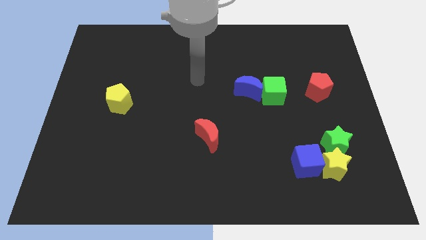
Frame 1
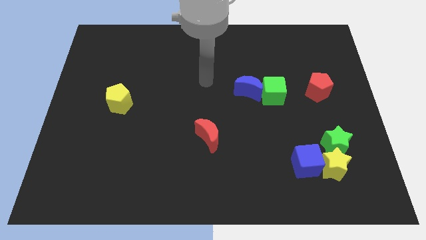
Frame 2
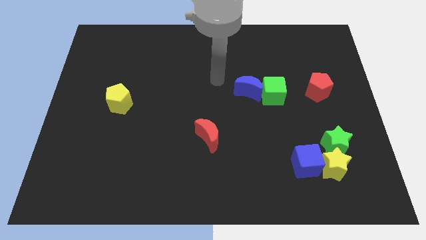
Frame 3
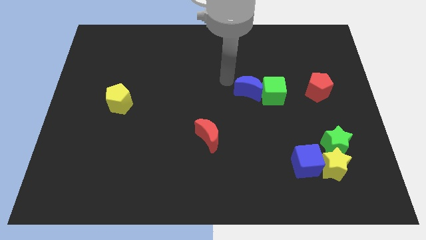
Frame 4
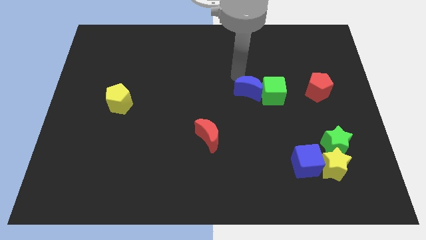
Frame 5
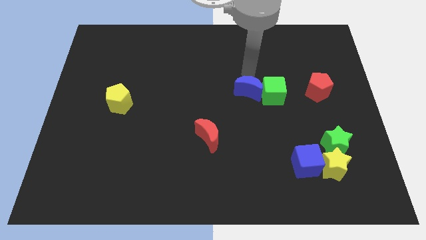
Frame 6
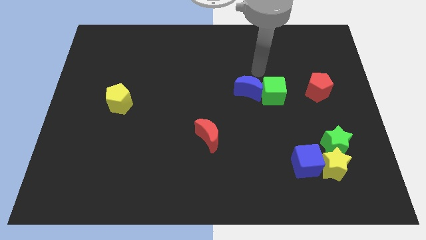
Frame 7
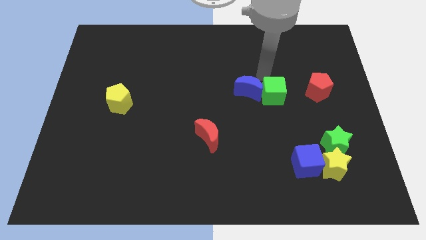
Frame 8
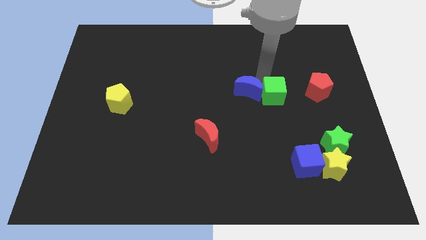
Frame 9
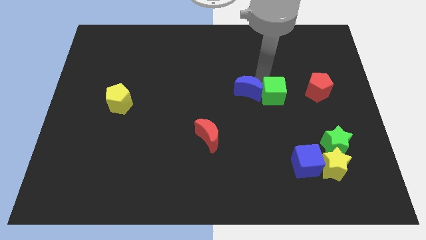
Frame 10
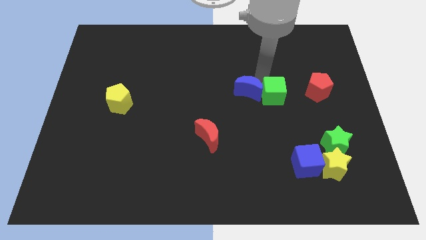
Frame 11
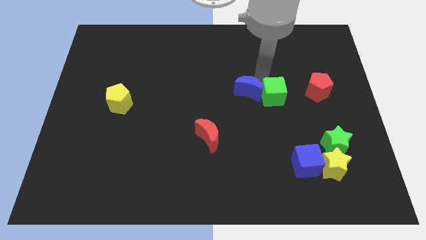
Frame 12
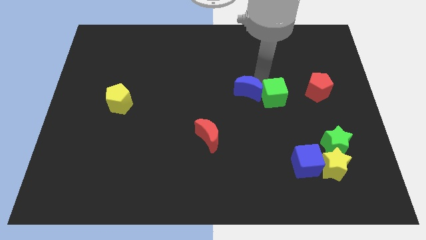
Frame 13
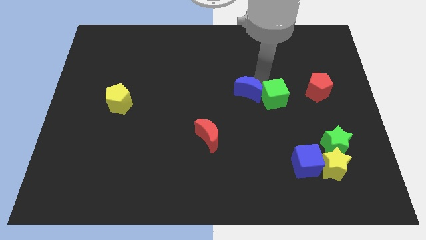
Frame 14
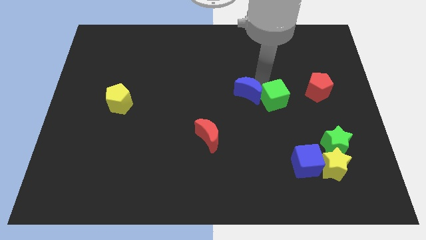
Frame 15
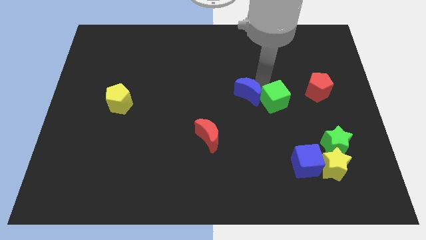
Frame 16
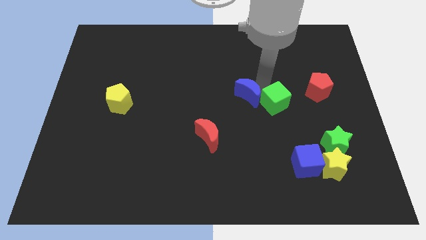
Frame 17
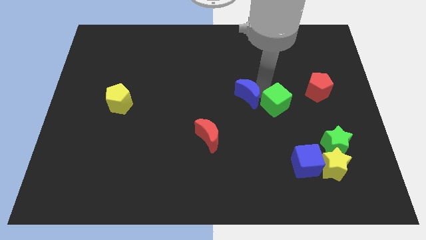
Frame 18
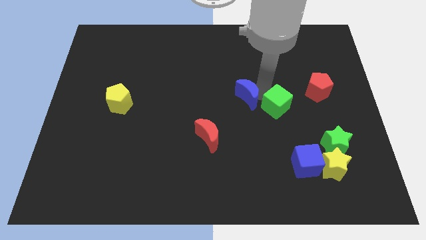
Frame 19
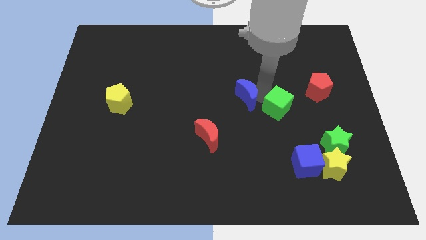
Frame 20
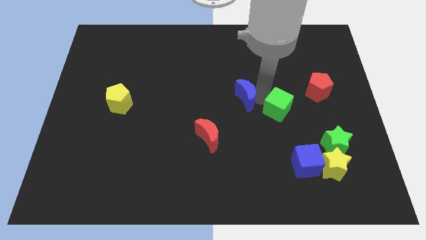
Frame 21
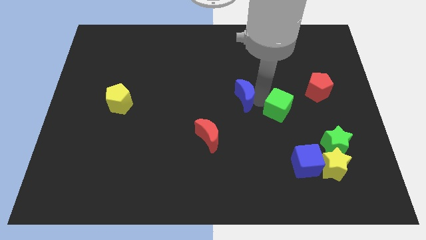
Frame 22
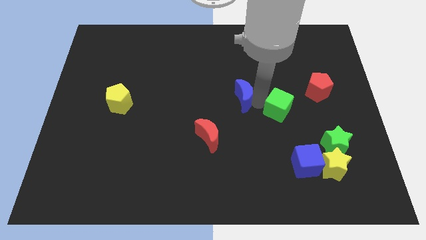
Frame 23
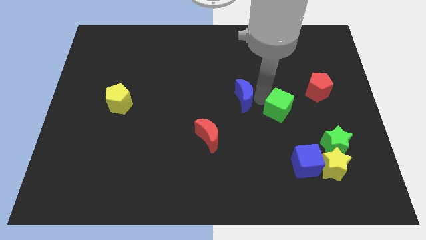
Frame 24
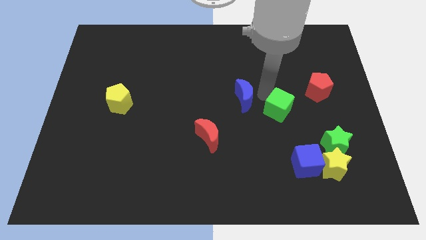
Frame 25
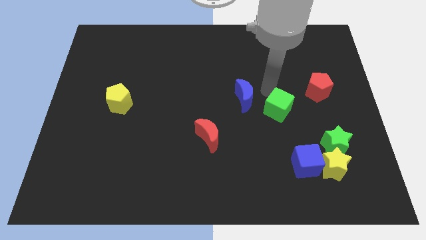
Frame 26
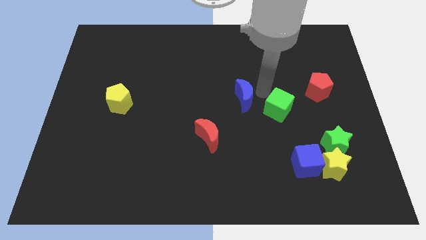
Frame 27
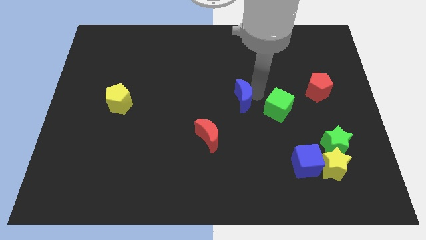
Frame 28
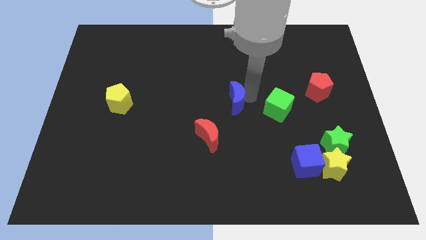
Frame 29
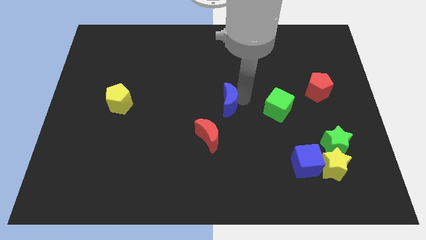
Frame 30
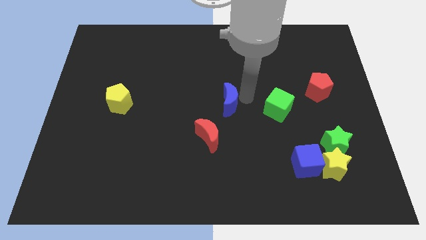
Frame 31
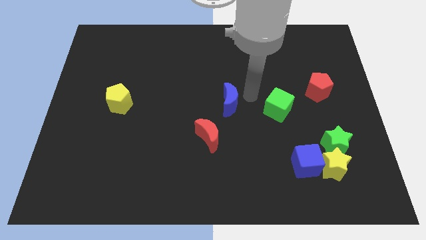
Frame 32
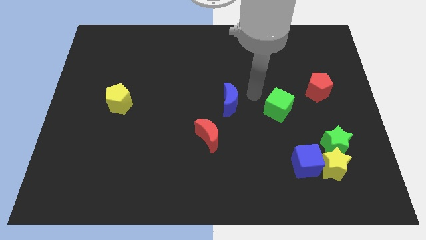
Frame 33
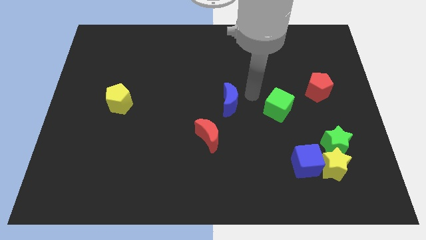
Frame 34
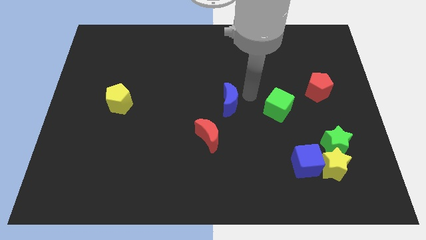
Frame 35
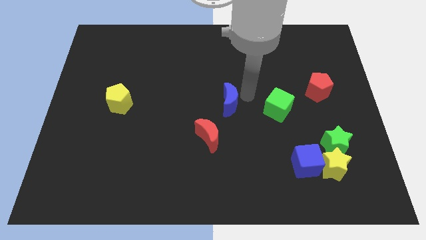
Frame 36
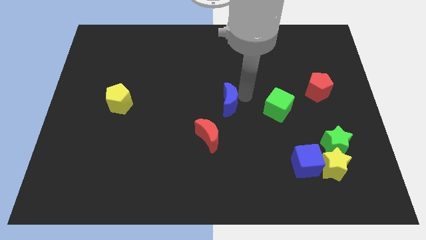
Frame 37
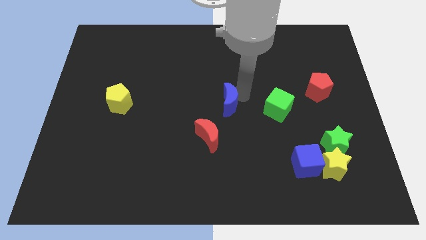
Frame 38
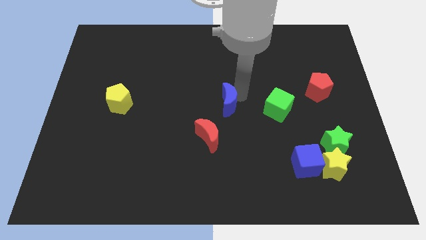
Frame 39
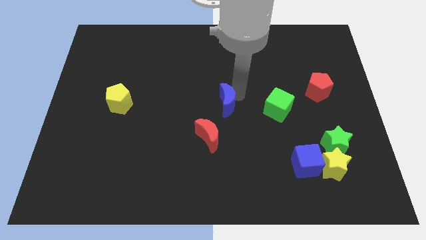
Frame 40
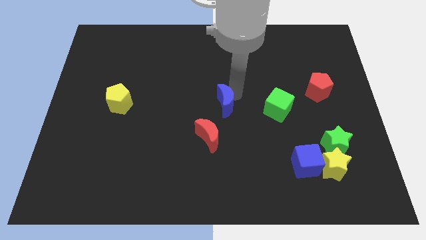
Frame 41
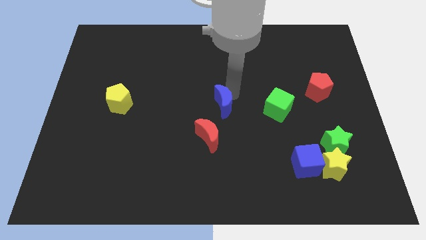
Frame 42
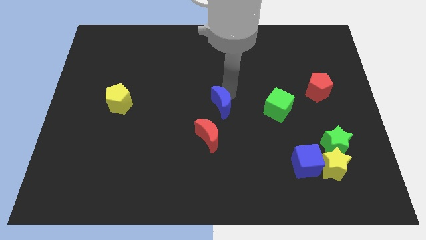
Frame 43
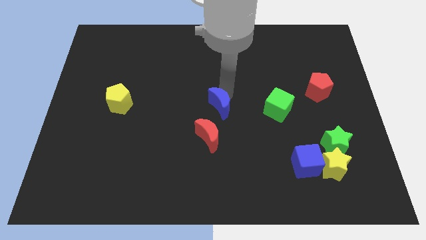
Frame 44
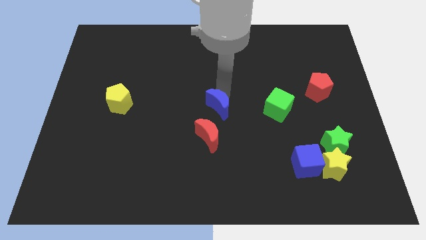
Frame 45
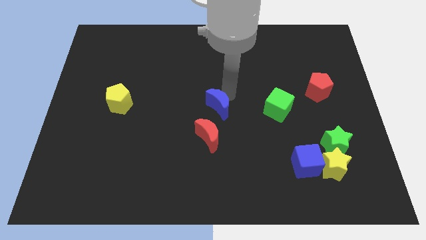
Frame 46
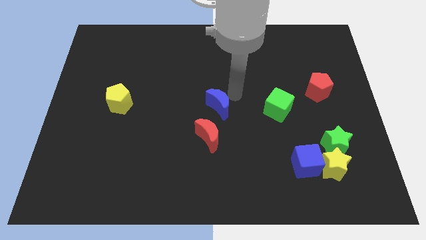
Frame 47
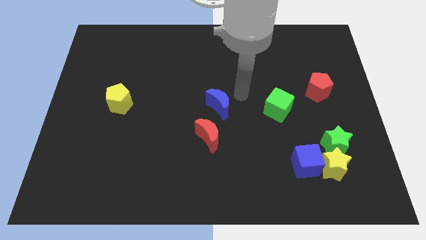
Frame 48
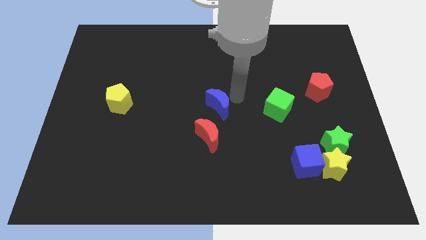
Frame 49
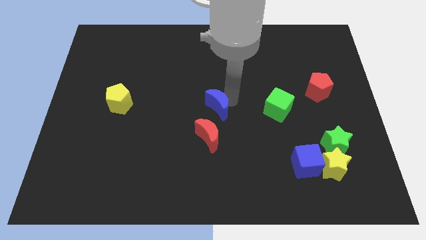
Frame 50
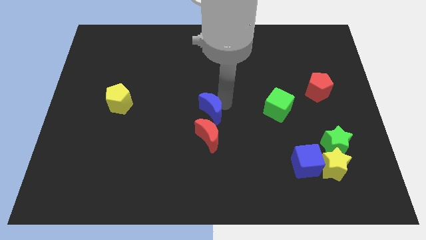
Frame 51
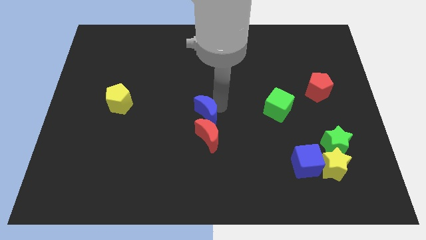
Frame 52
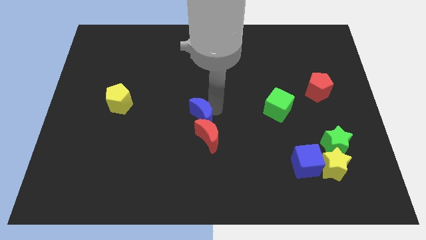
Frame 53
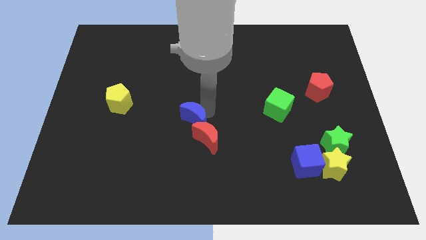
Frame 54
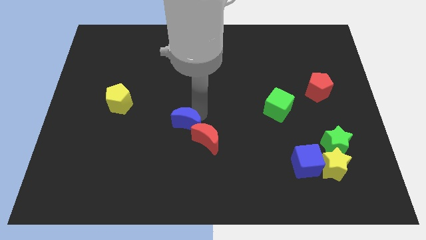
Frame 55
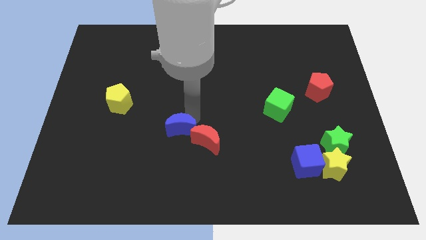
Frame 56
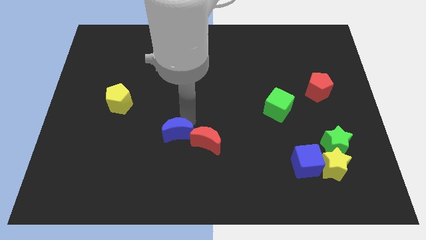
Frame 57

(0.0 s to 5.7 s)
push the blue moon diagonally downwards and left

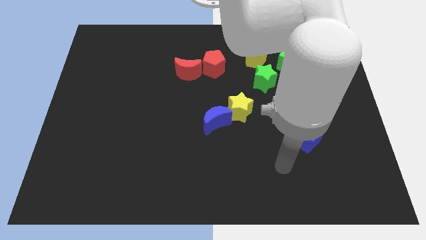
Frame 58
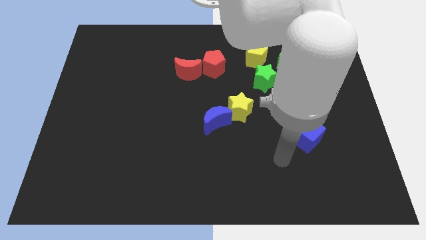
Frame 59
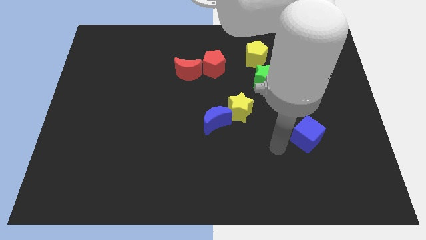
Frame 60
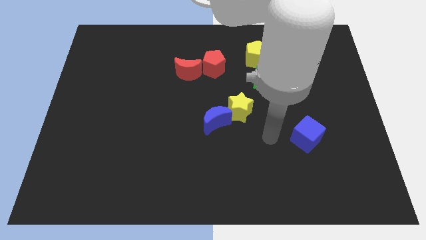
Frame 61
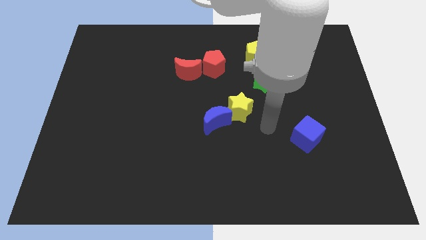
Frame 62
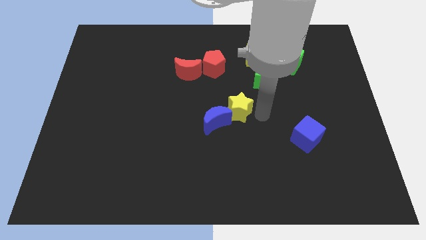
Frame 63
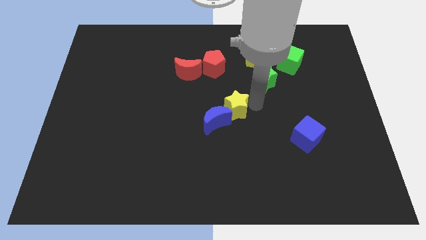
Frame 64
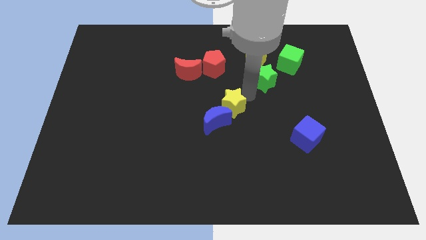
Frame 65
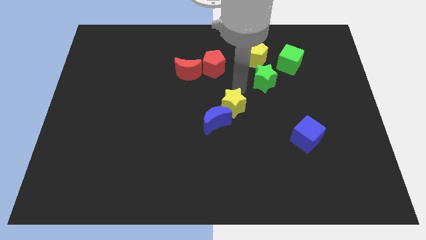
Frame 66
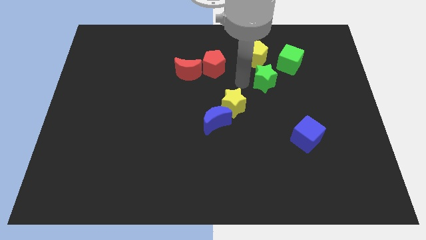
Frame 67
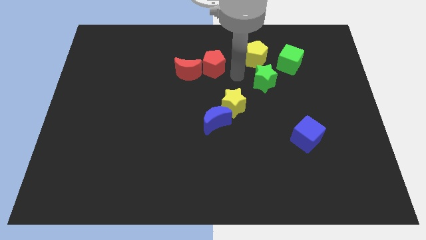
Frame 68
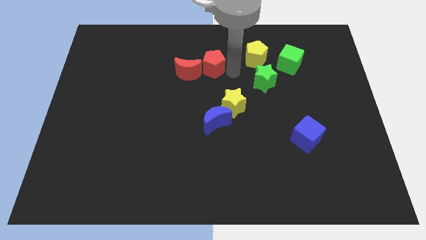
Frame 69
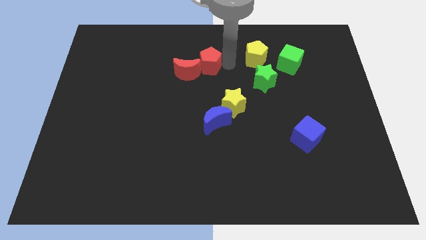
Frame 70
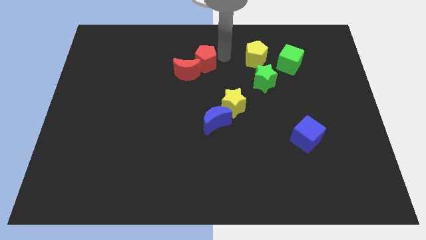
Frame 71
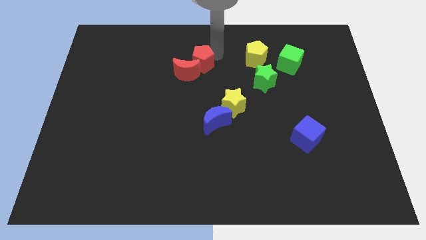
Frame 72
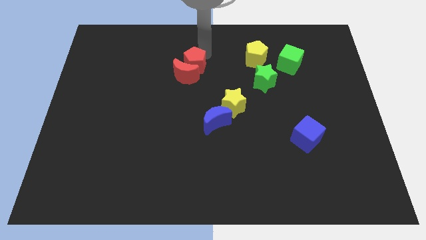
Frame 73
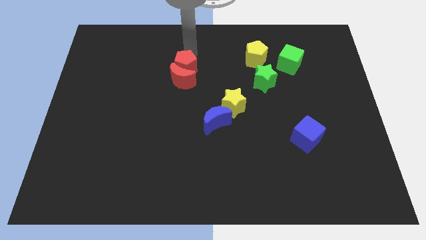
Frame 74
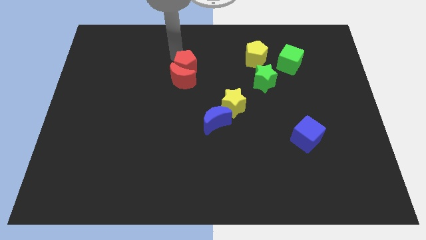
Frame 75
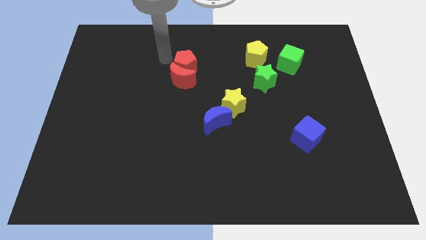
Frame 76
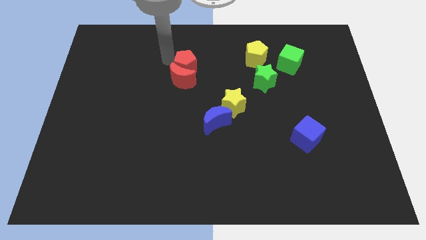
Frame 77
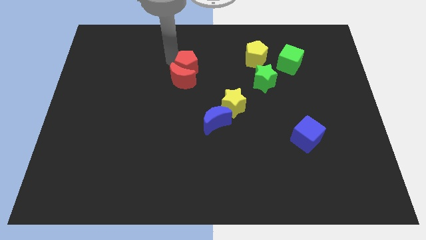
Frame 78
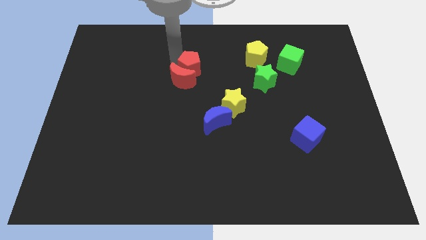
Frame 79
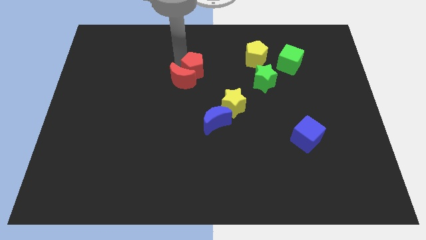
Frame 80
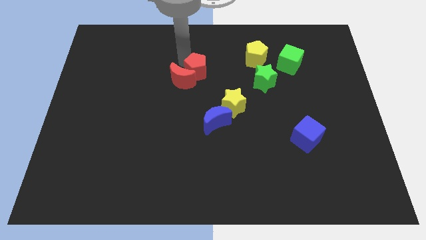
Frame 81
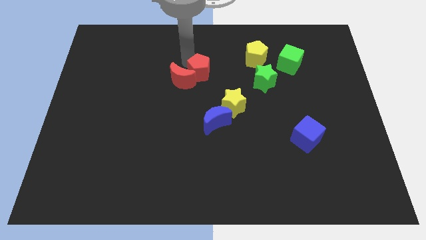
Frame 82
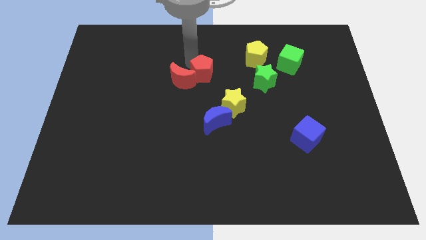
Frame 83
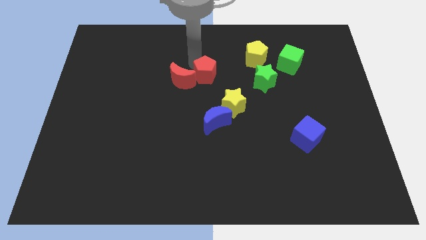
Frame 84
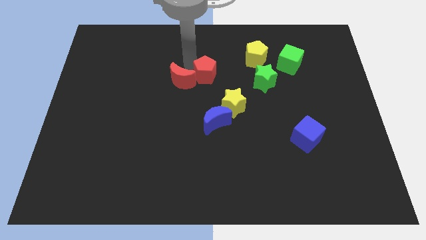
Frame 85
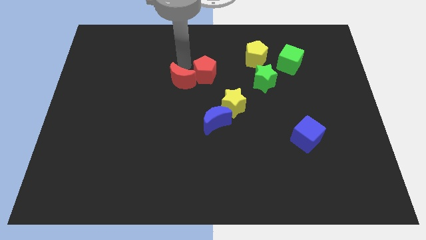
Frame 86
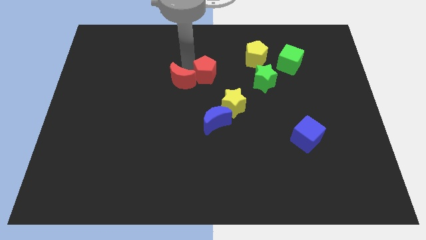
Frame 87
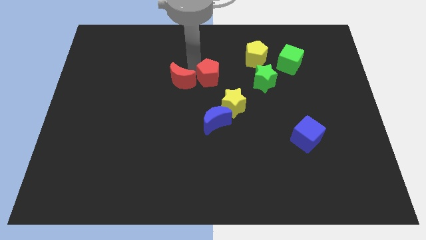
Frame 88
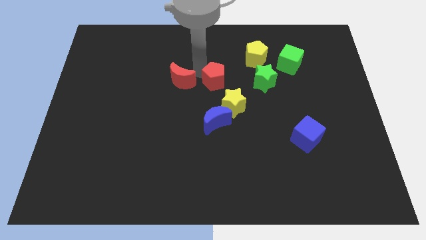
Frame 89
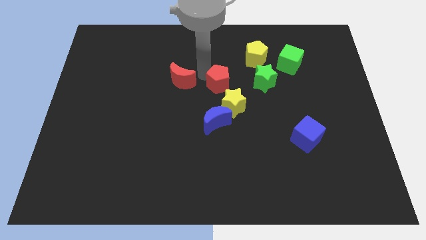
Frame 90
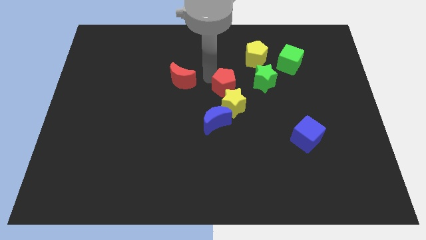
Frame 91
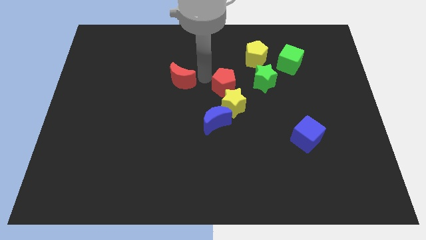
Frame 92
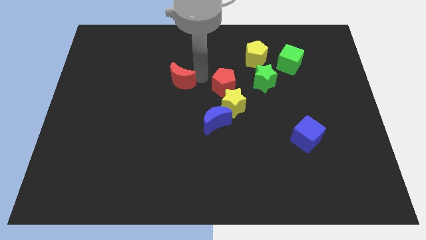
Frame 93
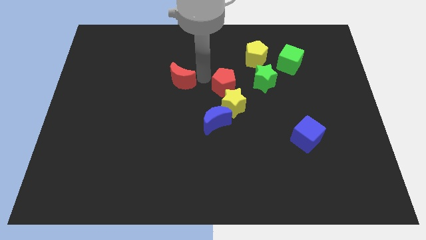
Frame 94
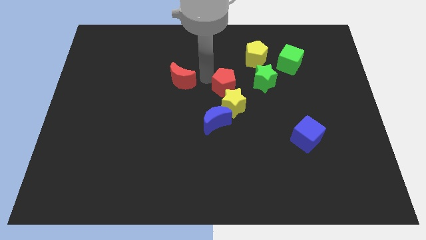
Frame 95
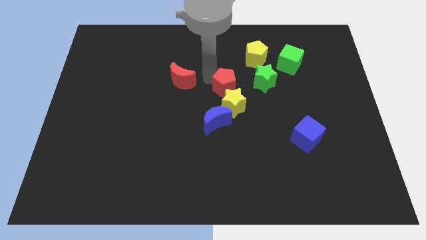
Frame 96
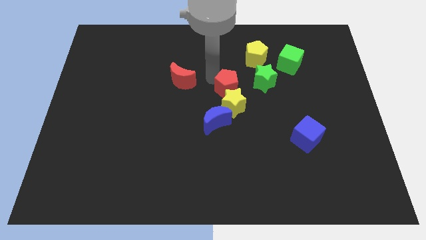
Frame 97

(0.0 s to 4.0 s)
push the red pentagon a little diagonally downwards and right
